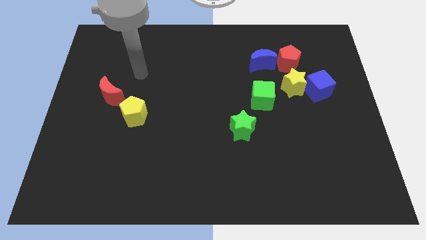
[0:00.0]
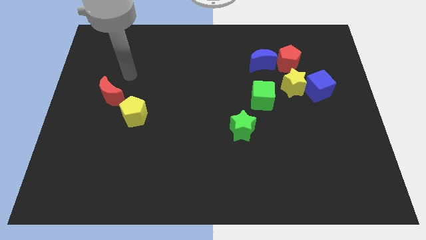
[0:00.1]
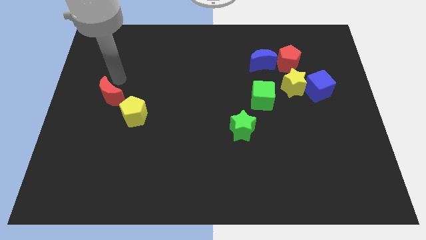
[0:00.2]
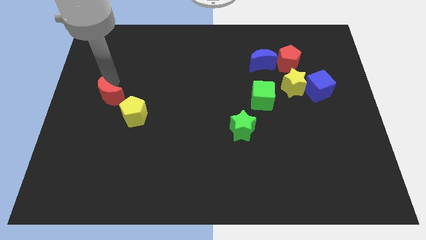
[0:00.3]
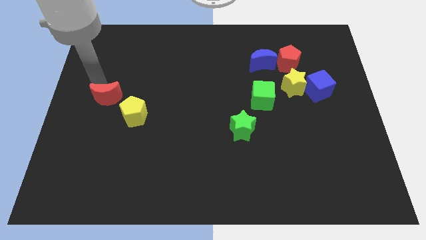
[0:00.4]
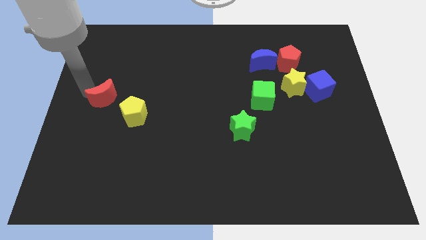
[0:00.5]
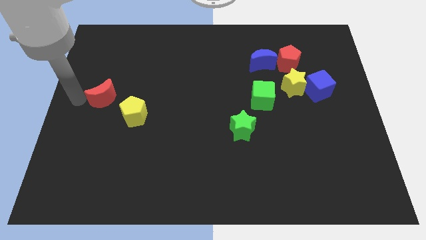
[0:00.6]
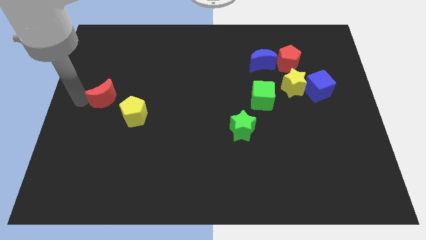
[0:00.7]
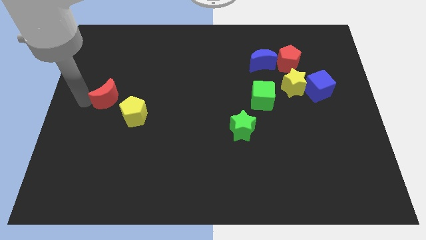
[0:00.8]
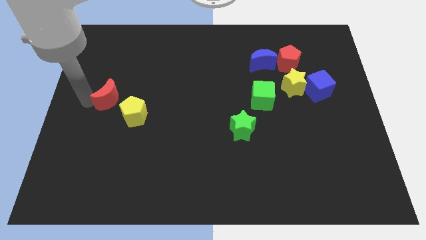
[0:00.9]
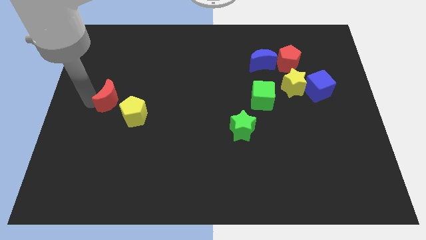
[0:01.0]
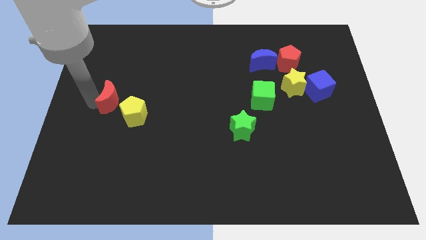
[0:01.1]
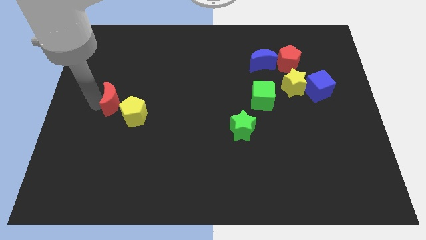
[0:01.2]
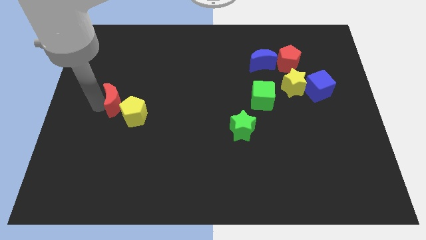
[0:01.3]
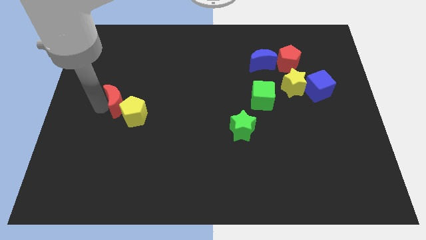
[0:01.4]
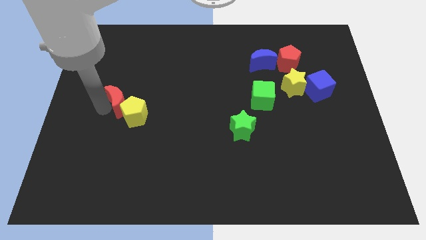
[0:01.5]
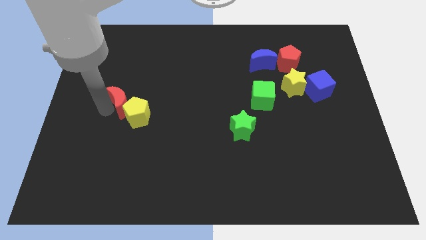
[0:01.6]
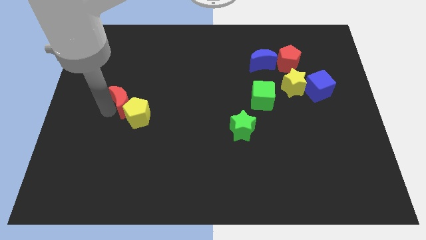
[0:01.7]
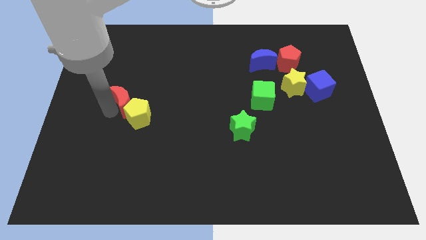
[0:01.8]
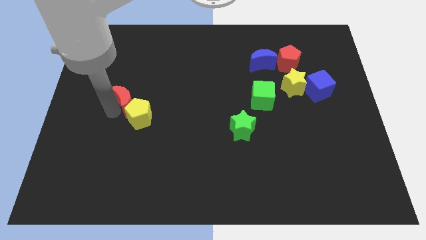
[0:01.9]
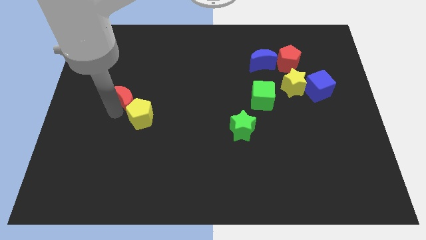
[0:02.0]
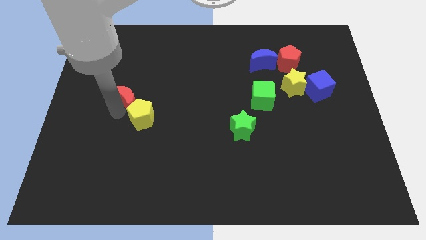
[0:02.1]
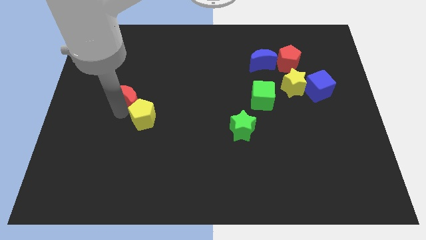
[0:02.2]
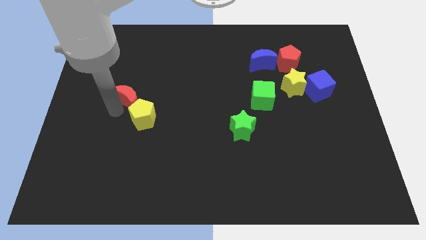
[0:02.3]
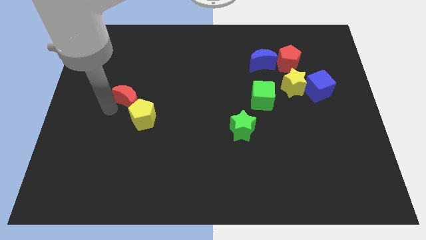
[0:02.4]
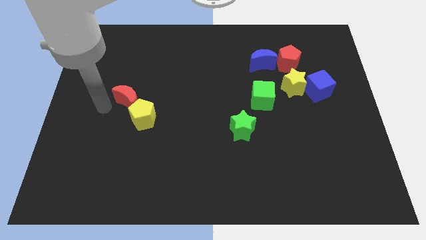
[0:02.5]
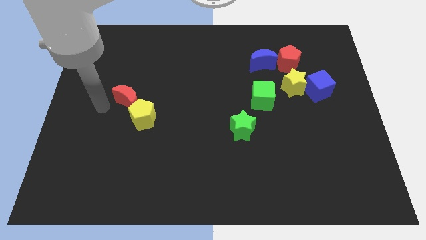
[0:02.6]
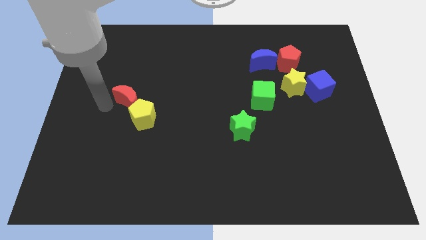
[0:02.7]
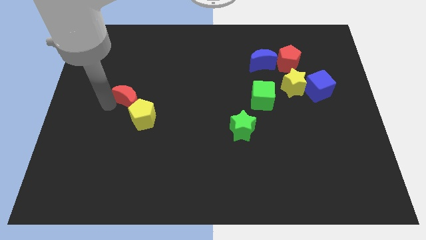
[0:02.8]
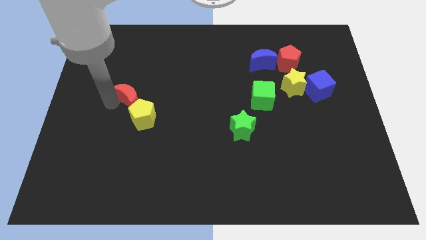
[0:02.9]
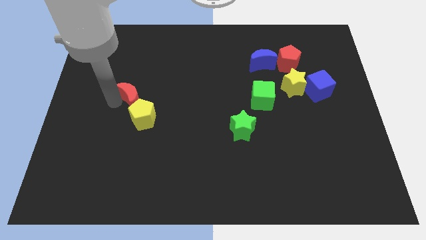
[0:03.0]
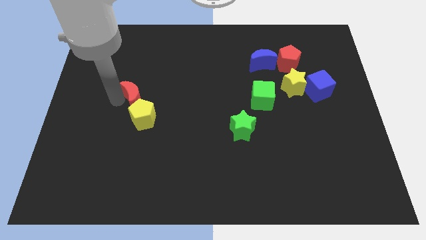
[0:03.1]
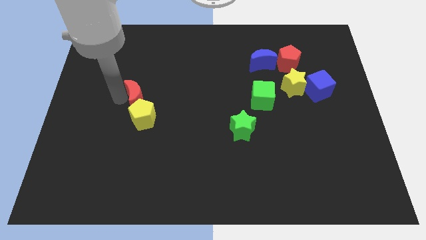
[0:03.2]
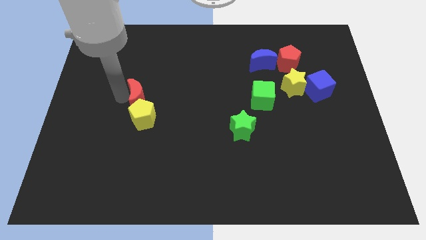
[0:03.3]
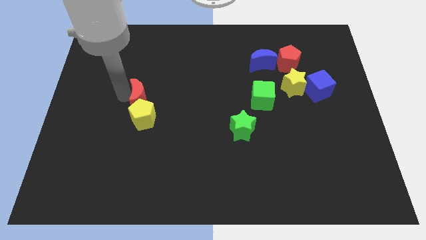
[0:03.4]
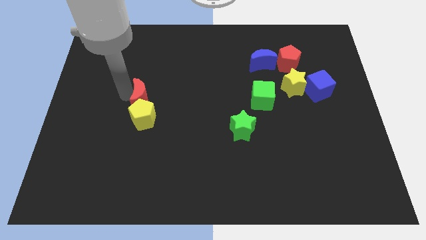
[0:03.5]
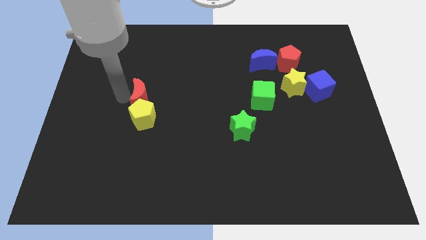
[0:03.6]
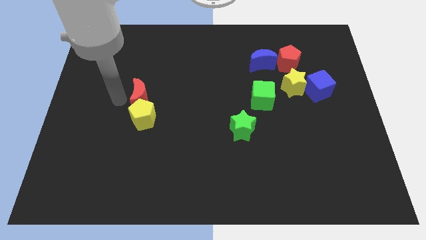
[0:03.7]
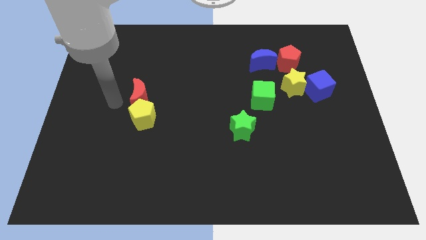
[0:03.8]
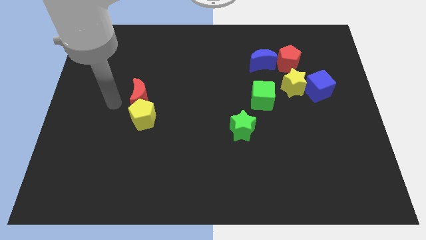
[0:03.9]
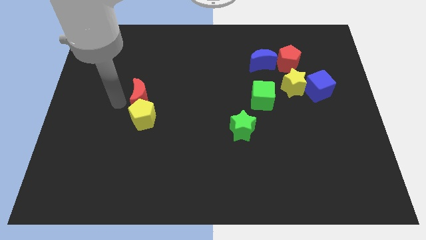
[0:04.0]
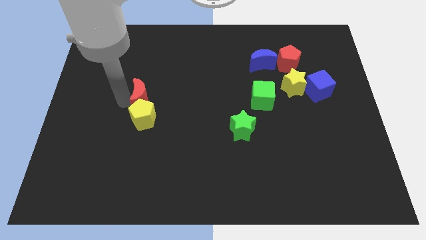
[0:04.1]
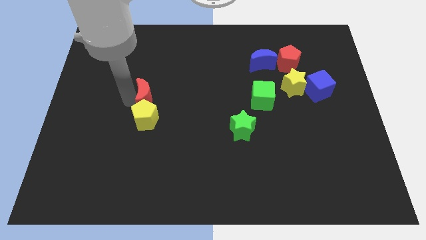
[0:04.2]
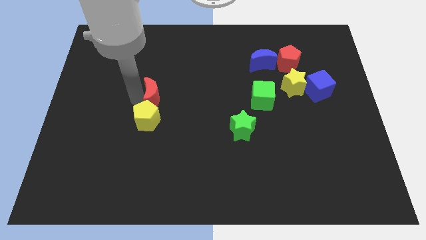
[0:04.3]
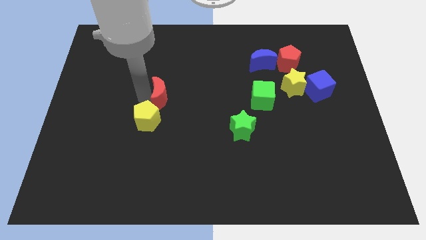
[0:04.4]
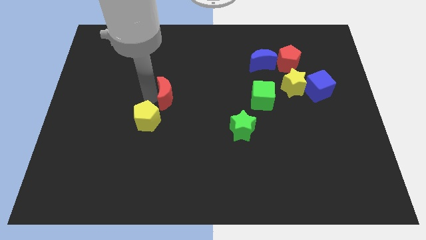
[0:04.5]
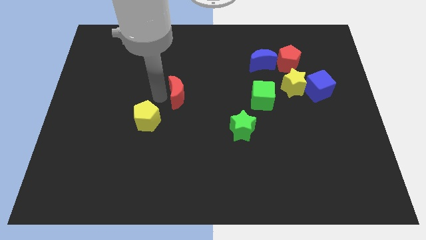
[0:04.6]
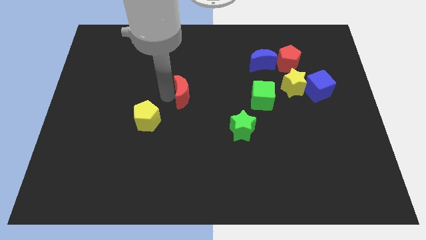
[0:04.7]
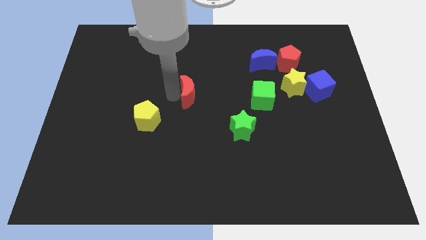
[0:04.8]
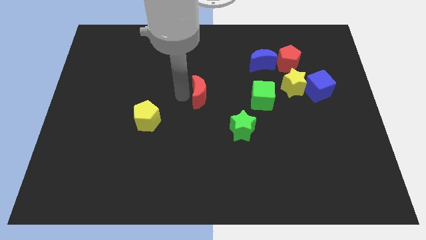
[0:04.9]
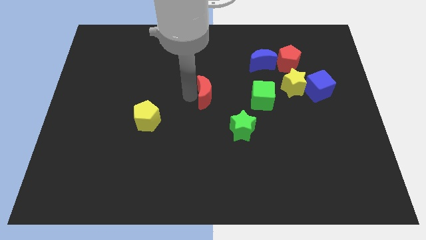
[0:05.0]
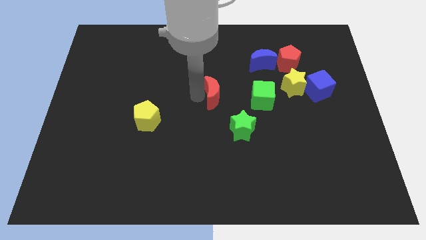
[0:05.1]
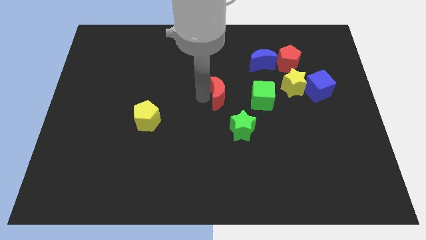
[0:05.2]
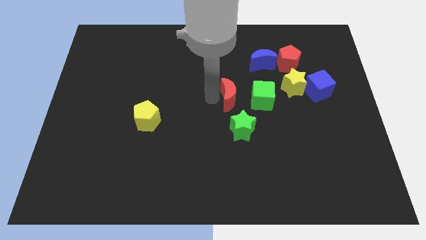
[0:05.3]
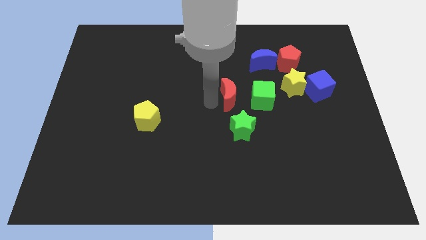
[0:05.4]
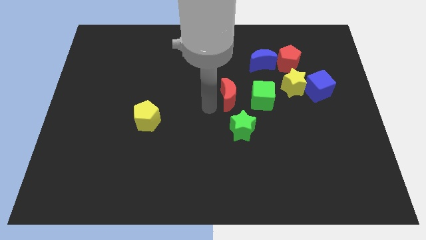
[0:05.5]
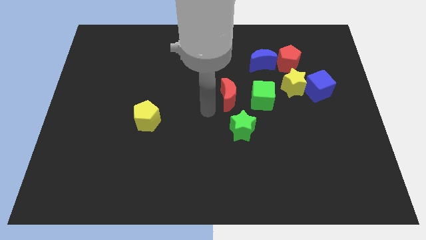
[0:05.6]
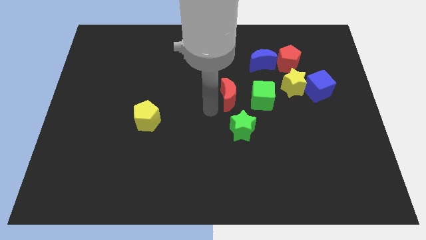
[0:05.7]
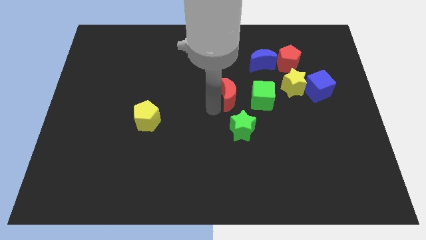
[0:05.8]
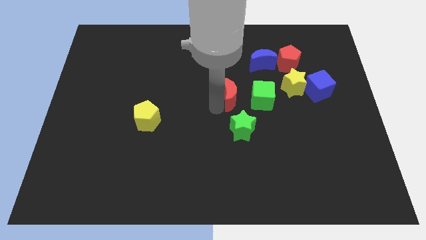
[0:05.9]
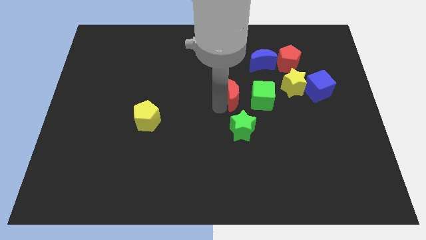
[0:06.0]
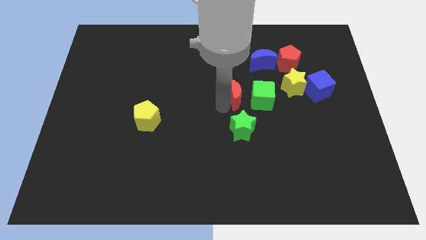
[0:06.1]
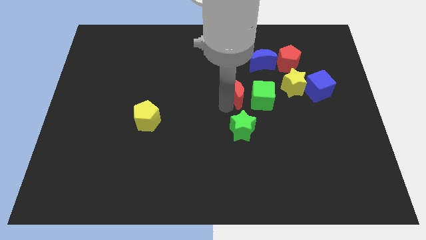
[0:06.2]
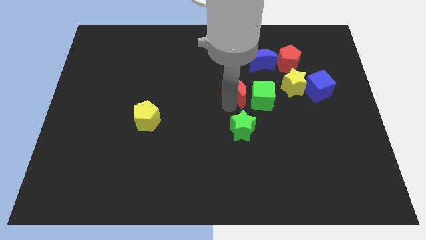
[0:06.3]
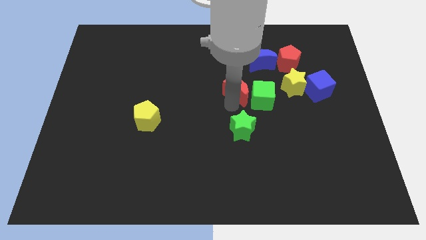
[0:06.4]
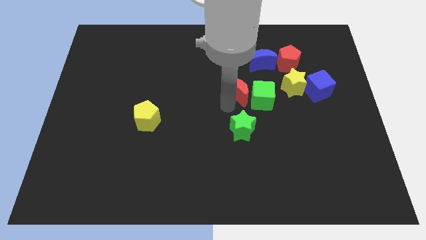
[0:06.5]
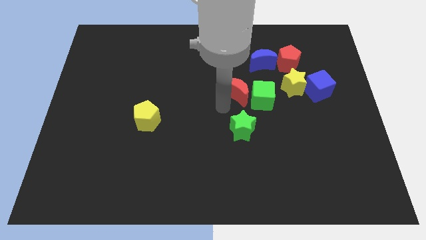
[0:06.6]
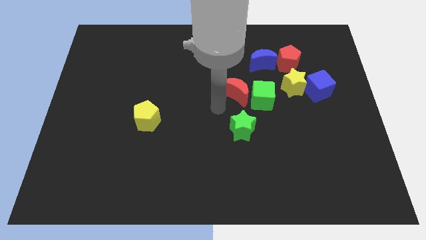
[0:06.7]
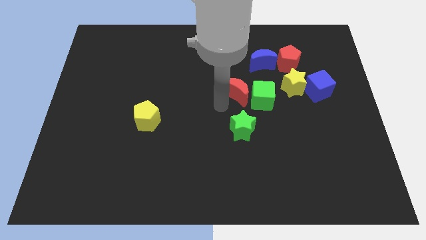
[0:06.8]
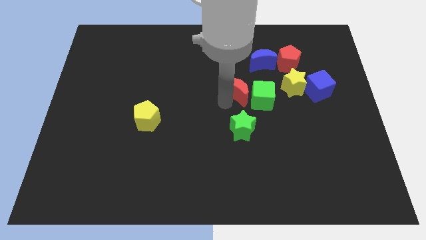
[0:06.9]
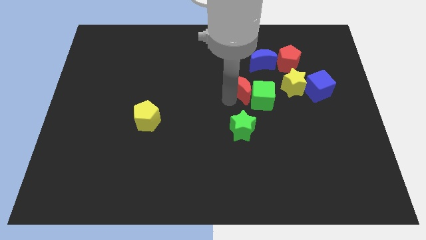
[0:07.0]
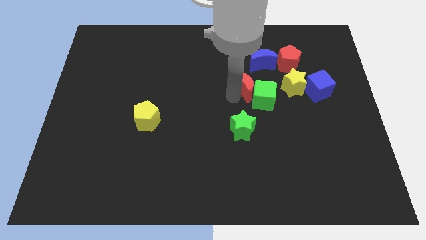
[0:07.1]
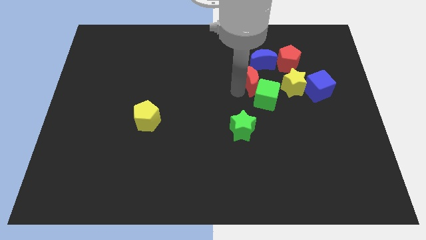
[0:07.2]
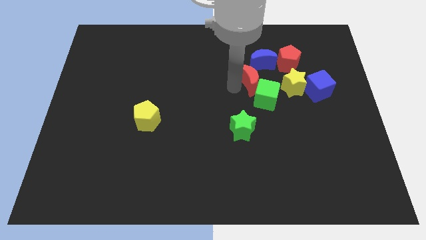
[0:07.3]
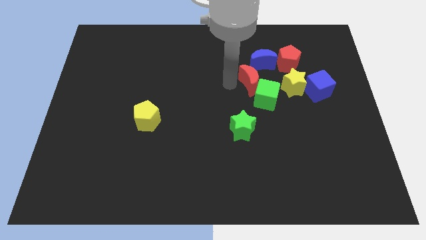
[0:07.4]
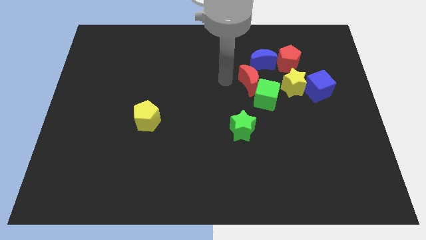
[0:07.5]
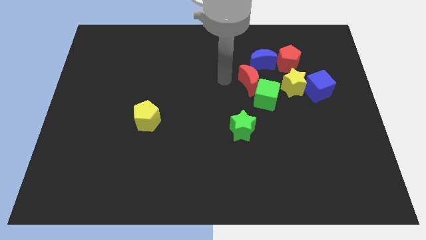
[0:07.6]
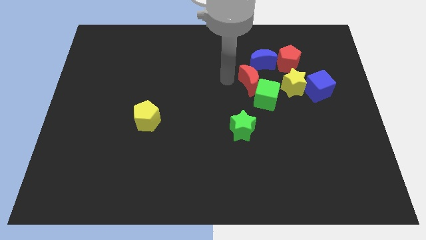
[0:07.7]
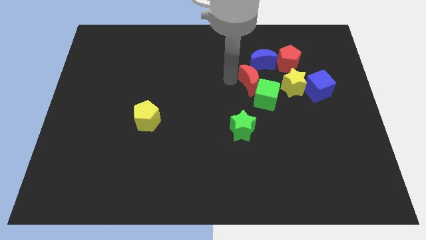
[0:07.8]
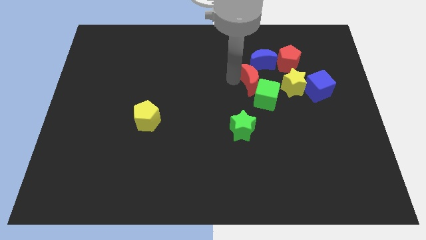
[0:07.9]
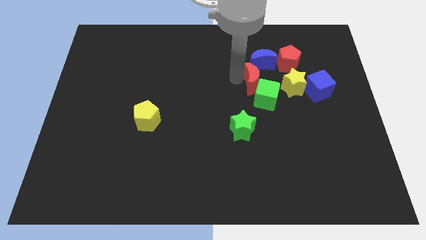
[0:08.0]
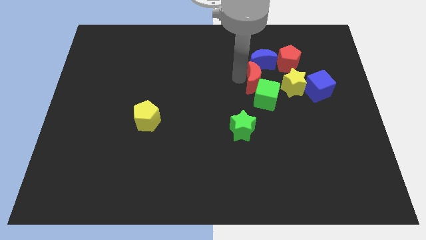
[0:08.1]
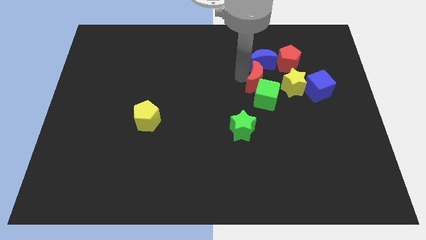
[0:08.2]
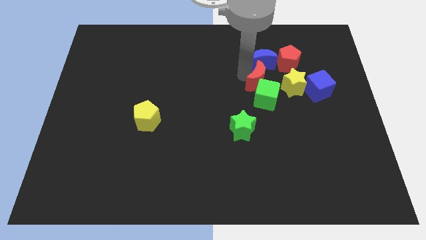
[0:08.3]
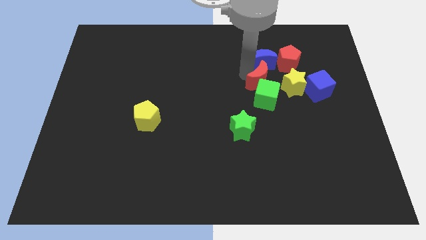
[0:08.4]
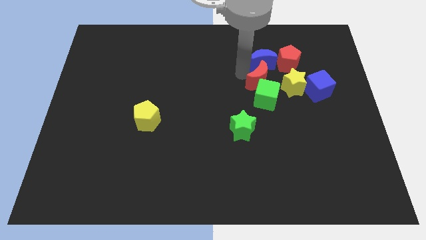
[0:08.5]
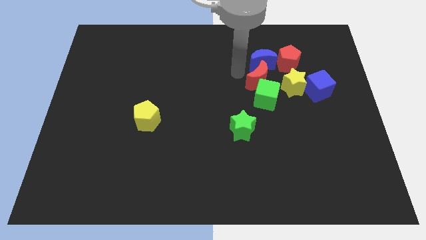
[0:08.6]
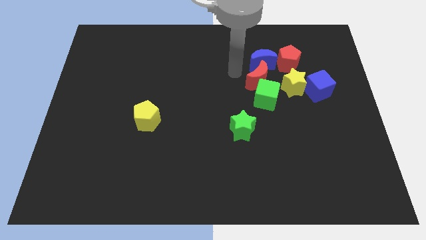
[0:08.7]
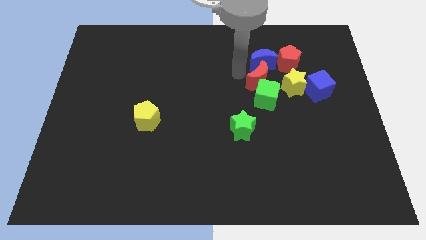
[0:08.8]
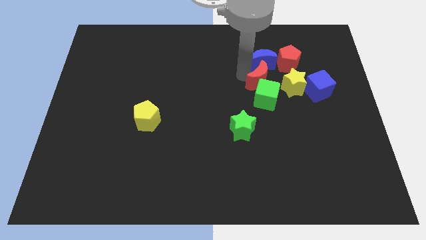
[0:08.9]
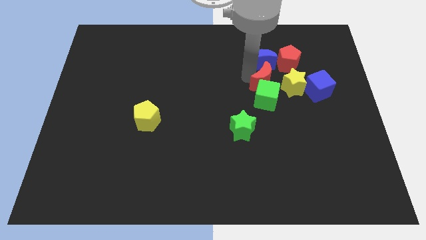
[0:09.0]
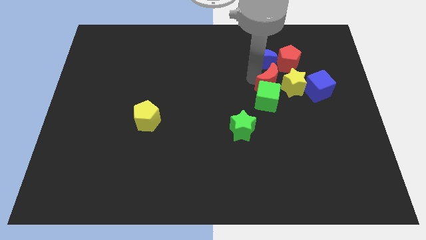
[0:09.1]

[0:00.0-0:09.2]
put the red moon to the yellow star
